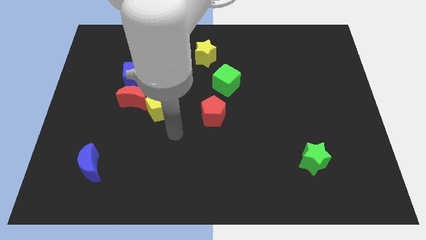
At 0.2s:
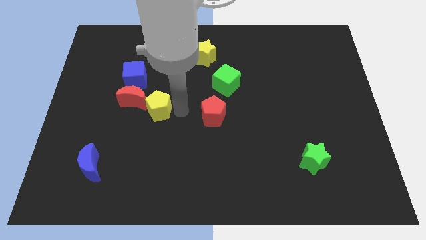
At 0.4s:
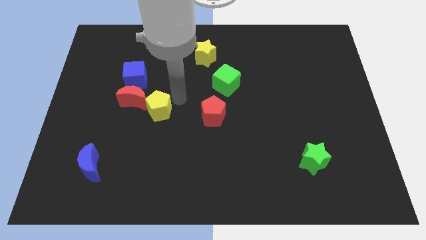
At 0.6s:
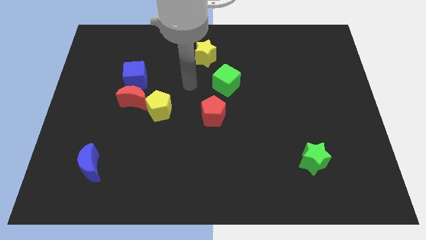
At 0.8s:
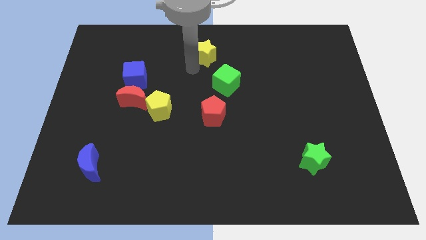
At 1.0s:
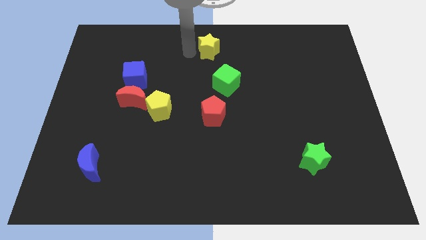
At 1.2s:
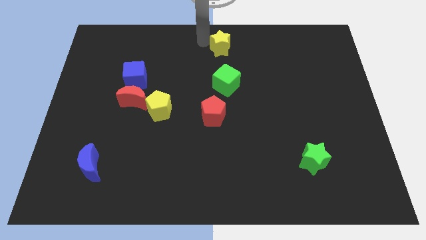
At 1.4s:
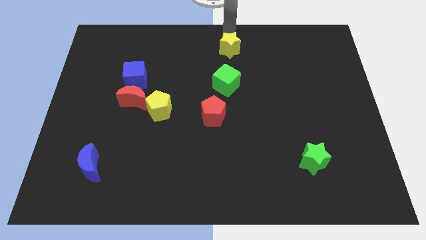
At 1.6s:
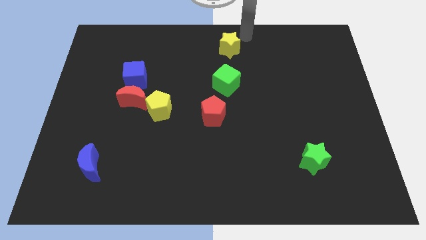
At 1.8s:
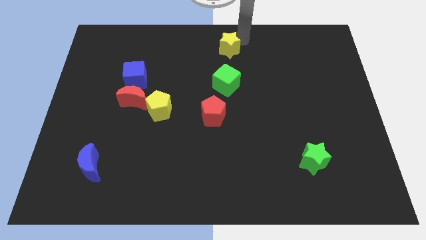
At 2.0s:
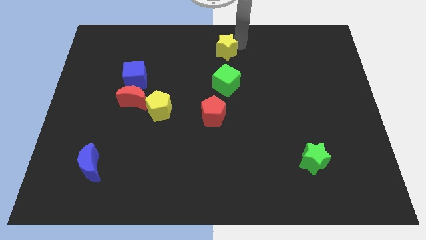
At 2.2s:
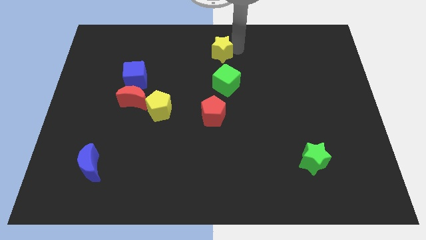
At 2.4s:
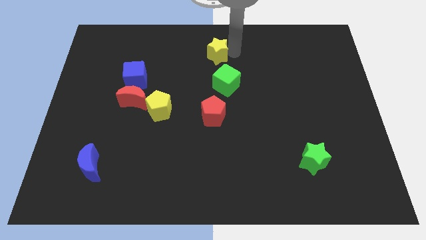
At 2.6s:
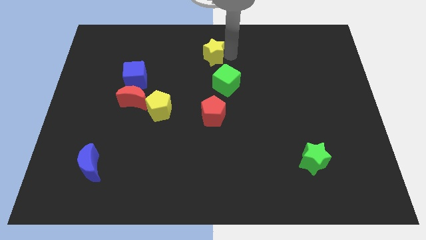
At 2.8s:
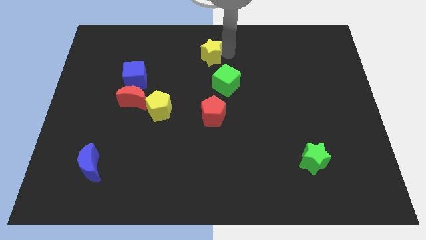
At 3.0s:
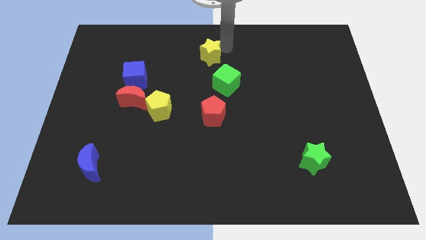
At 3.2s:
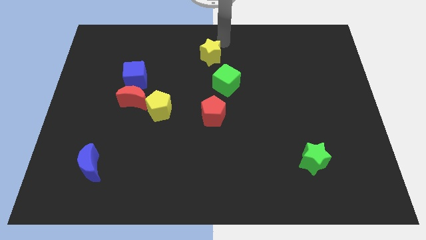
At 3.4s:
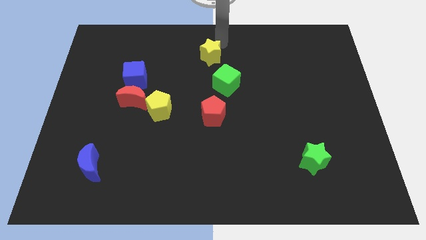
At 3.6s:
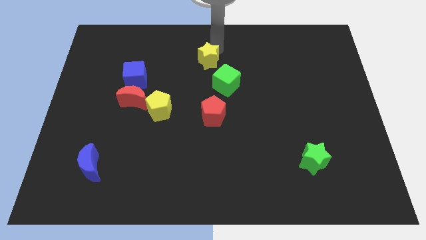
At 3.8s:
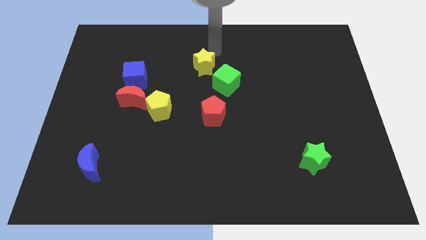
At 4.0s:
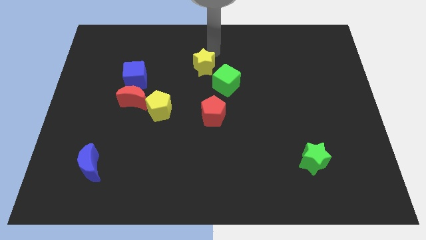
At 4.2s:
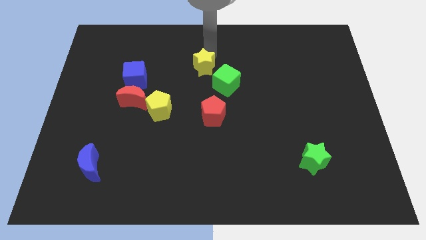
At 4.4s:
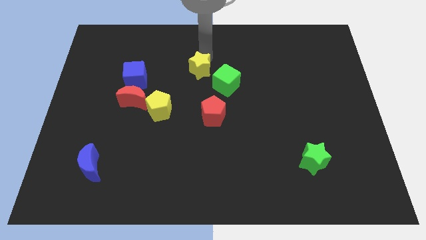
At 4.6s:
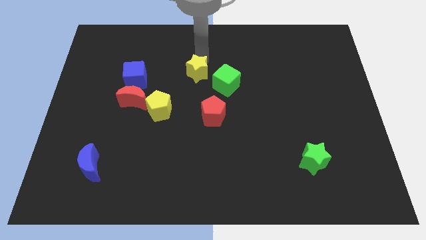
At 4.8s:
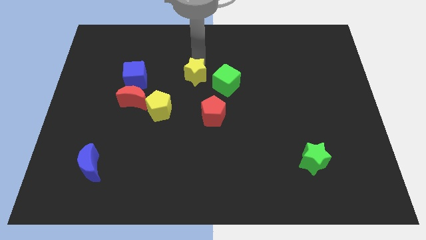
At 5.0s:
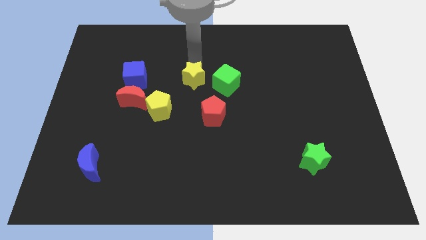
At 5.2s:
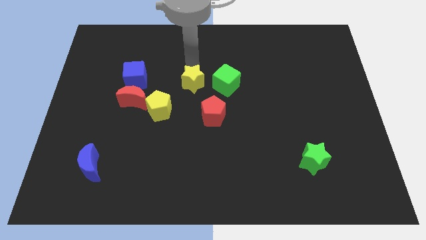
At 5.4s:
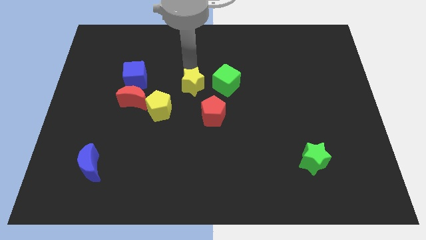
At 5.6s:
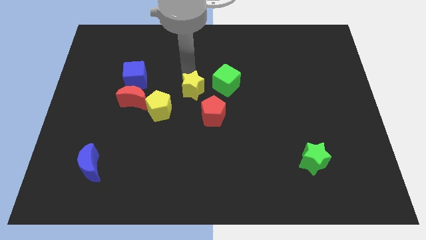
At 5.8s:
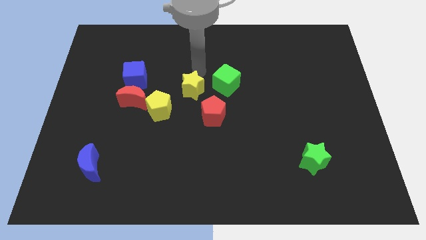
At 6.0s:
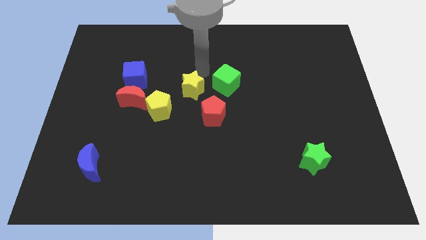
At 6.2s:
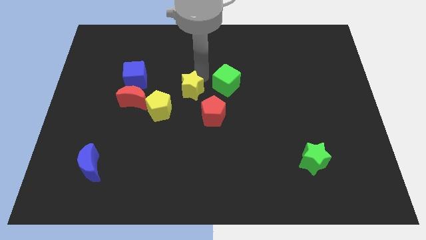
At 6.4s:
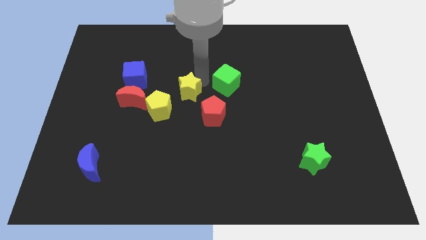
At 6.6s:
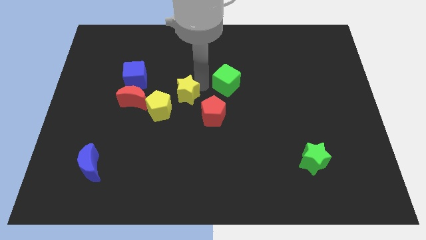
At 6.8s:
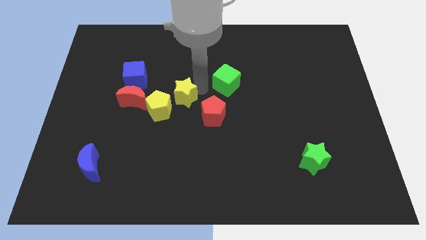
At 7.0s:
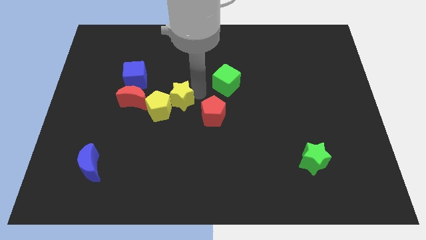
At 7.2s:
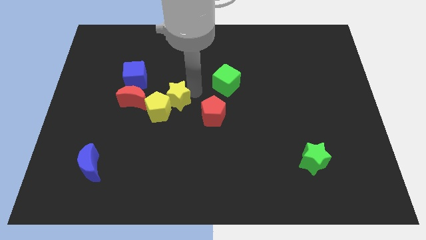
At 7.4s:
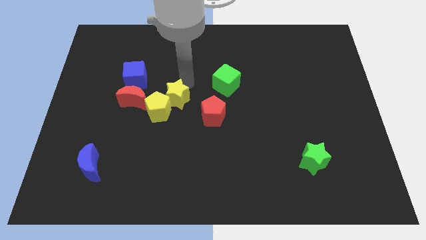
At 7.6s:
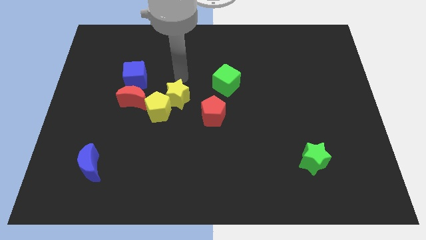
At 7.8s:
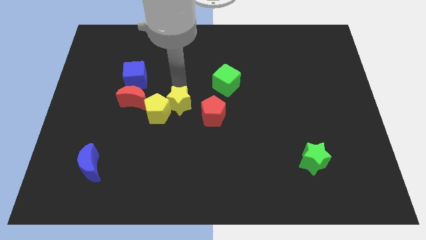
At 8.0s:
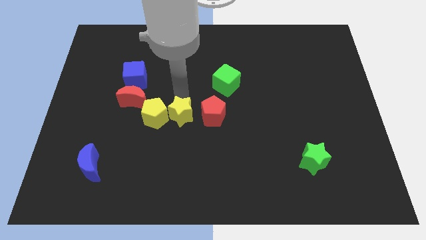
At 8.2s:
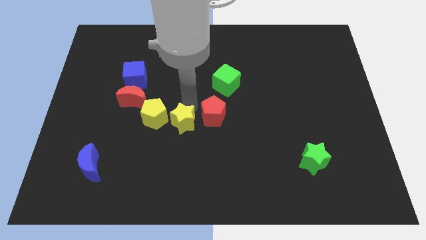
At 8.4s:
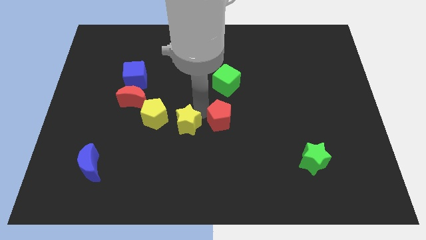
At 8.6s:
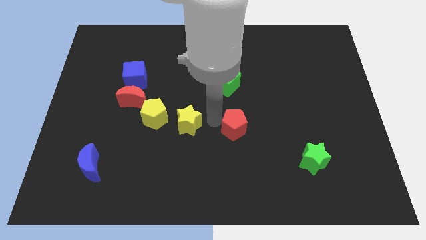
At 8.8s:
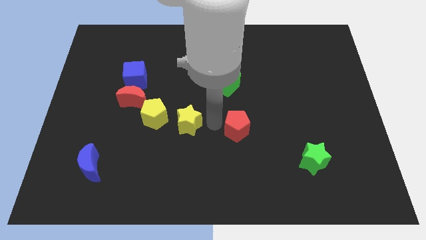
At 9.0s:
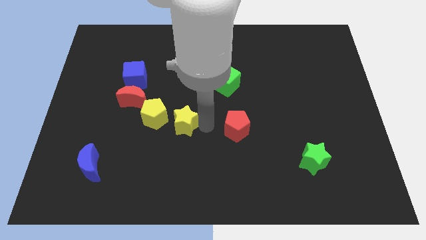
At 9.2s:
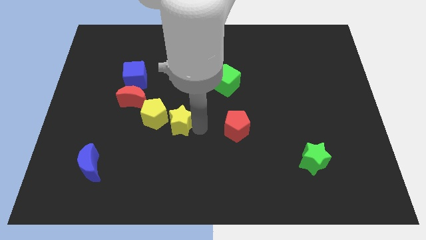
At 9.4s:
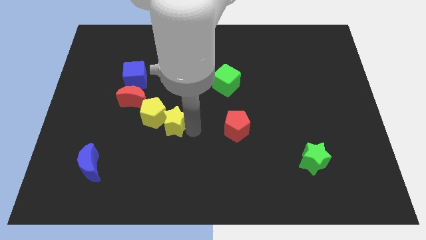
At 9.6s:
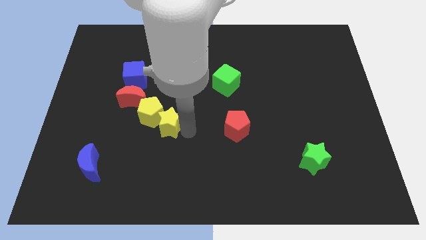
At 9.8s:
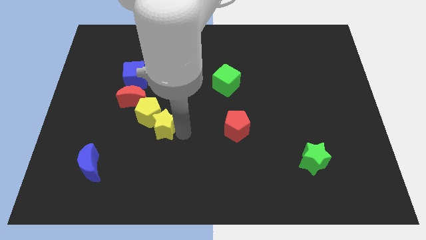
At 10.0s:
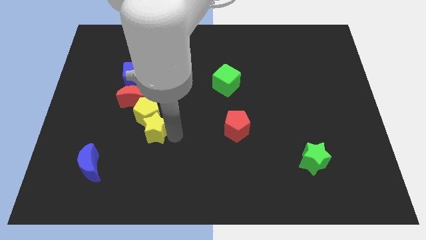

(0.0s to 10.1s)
slide the yellow star downwards and then to the left

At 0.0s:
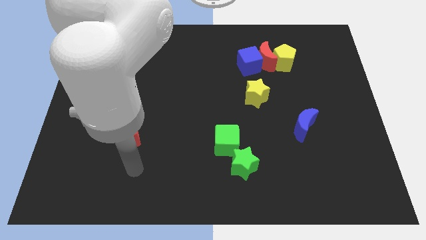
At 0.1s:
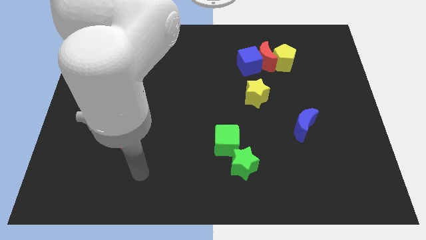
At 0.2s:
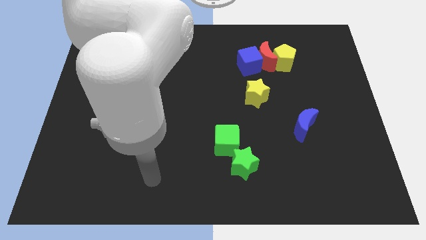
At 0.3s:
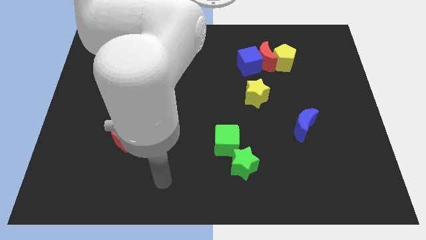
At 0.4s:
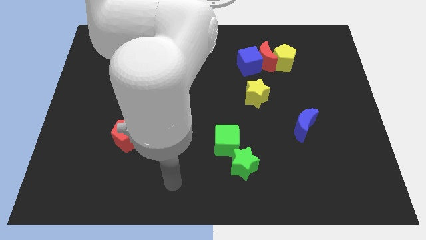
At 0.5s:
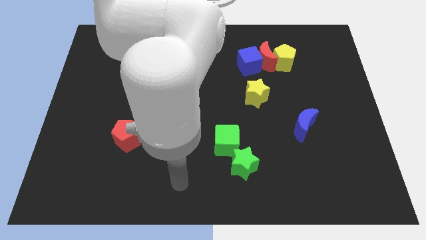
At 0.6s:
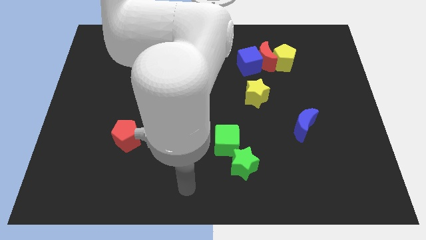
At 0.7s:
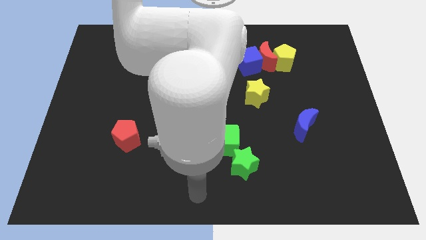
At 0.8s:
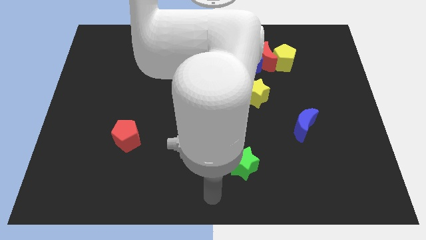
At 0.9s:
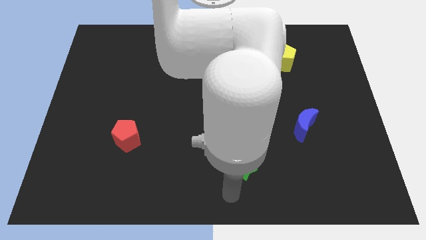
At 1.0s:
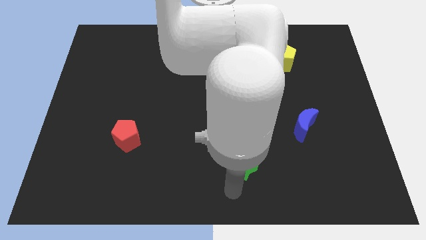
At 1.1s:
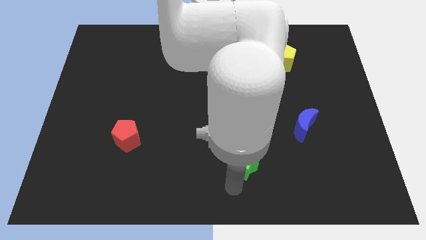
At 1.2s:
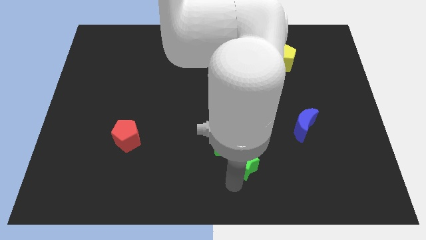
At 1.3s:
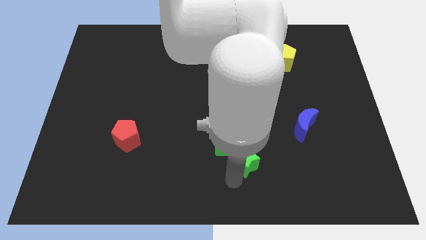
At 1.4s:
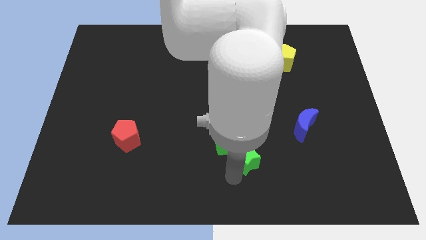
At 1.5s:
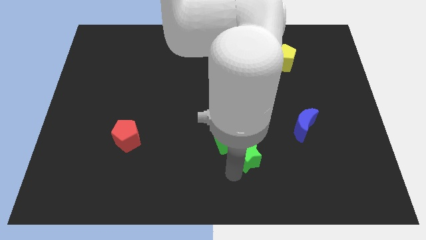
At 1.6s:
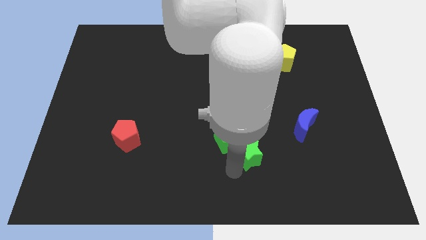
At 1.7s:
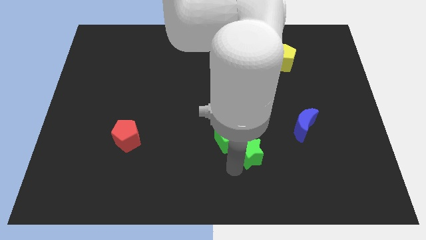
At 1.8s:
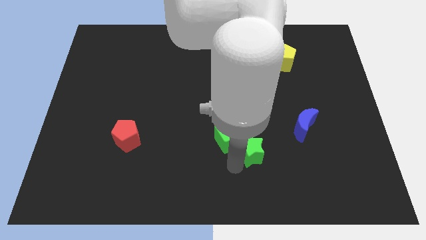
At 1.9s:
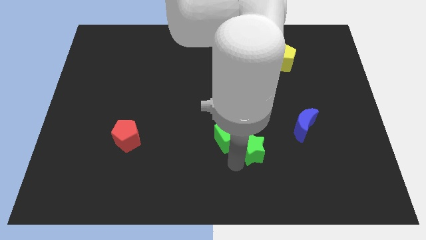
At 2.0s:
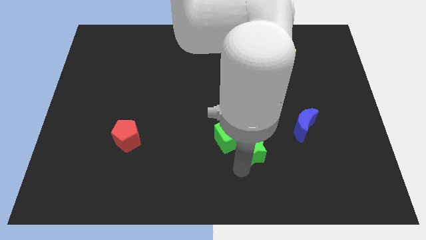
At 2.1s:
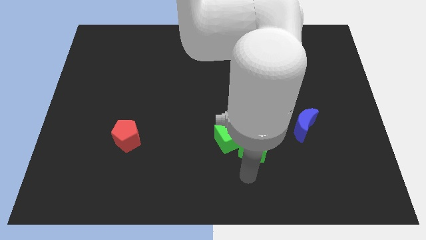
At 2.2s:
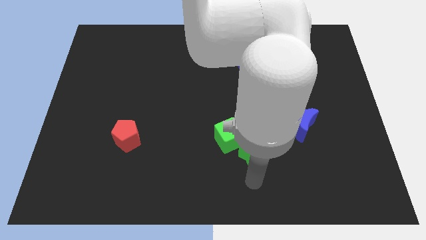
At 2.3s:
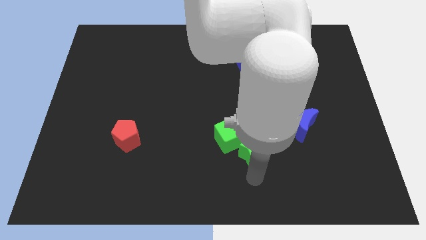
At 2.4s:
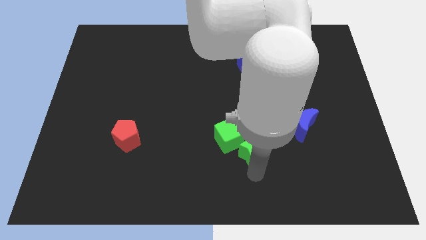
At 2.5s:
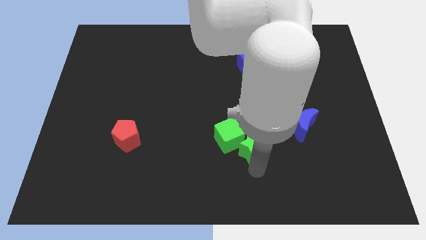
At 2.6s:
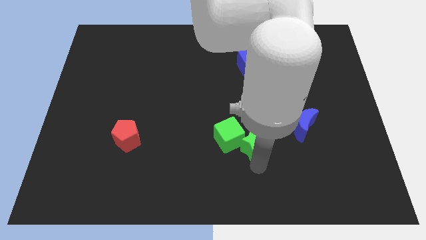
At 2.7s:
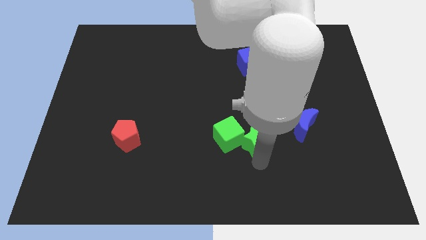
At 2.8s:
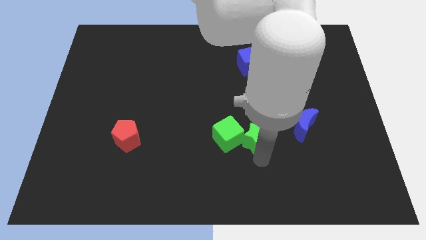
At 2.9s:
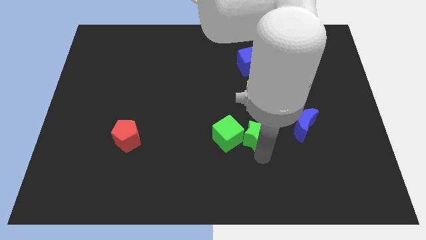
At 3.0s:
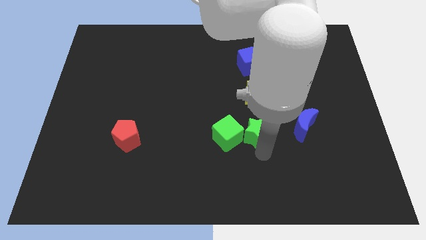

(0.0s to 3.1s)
slightly move the green star upwards
